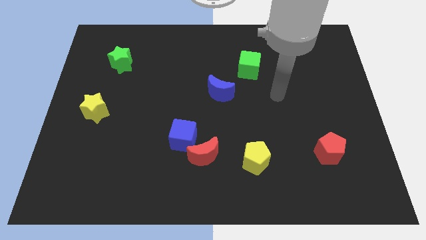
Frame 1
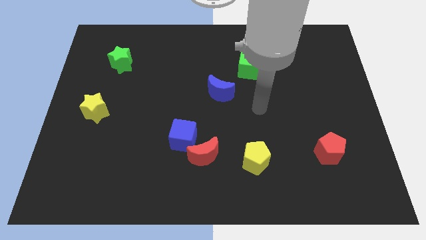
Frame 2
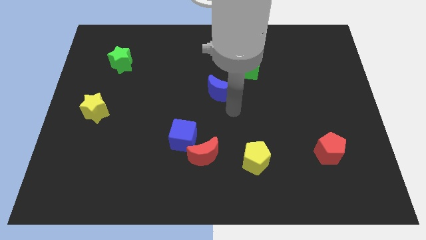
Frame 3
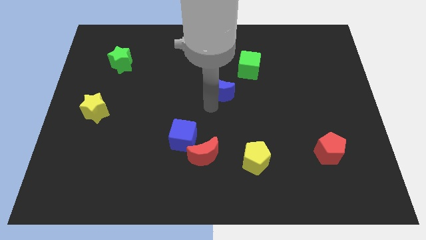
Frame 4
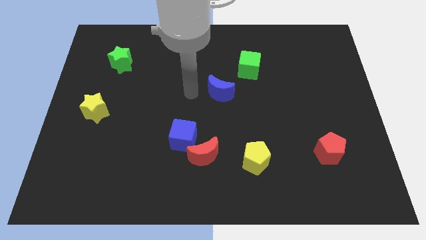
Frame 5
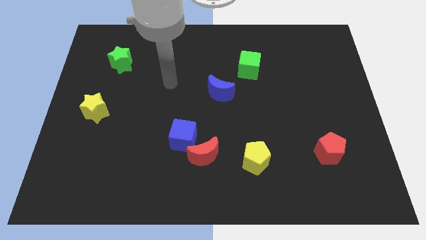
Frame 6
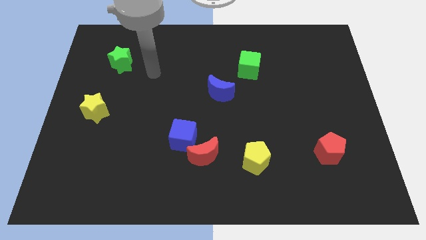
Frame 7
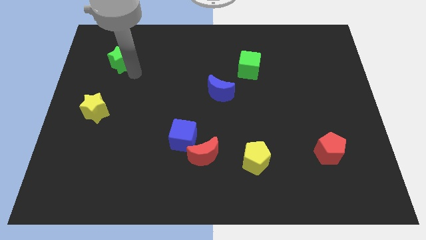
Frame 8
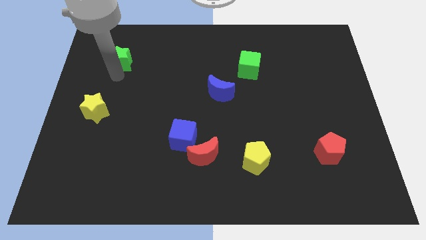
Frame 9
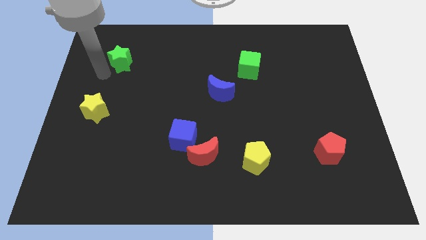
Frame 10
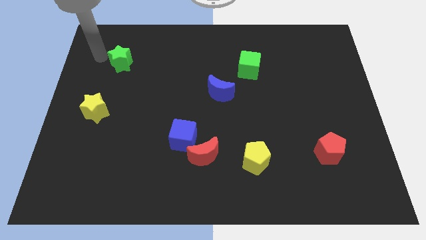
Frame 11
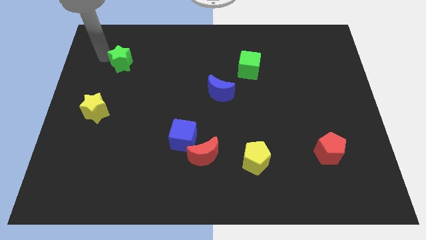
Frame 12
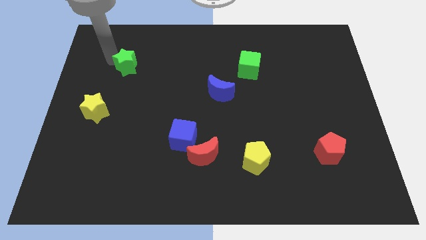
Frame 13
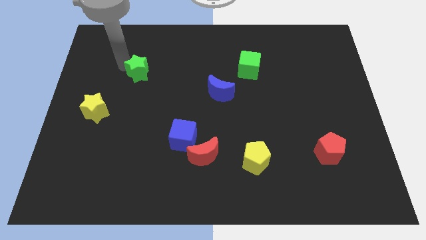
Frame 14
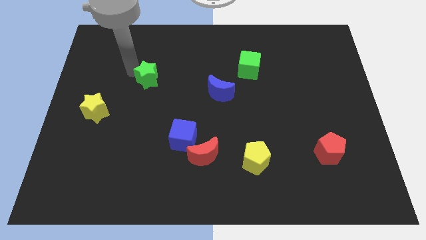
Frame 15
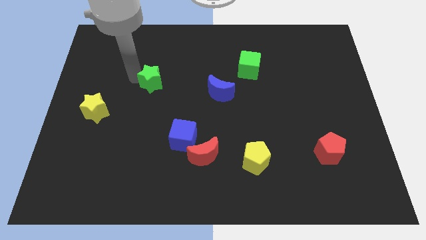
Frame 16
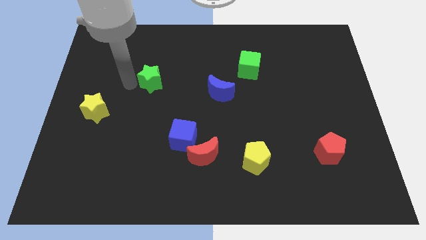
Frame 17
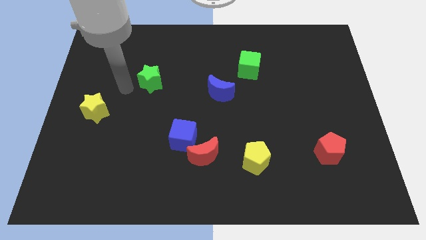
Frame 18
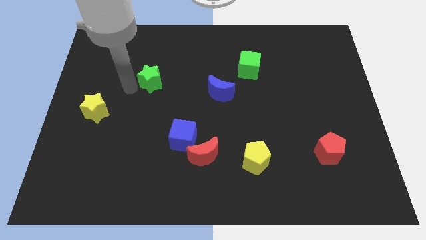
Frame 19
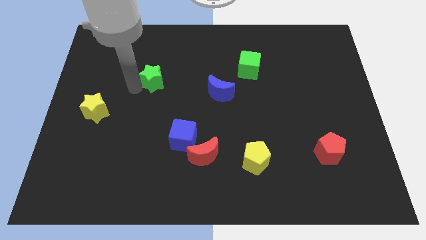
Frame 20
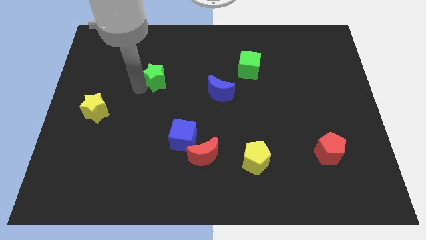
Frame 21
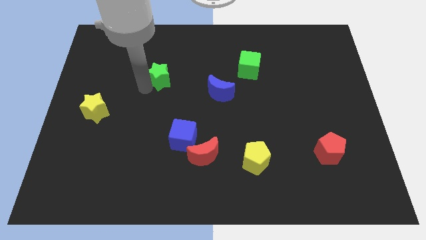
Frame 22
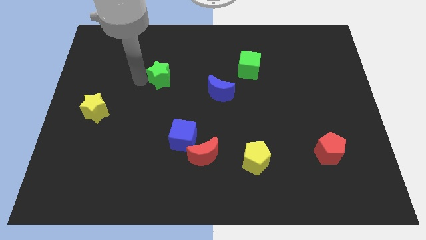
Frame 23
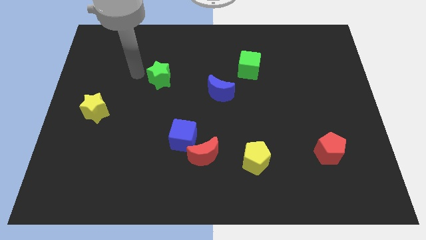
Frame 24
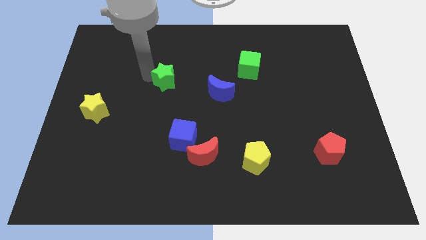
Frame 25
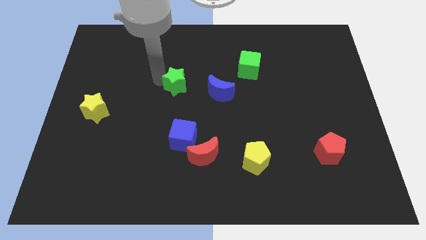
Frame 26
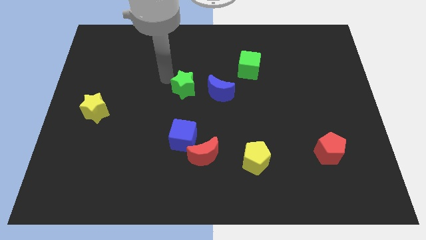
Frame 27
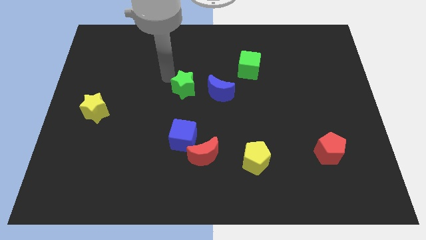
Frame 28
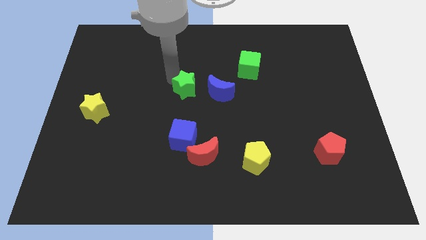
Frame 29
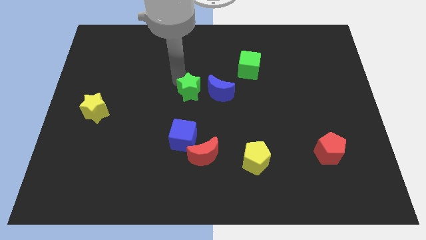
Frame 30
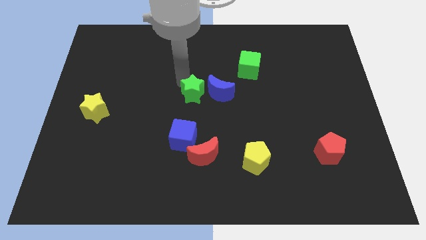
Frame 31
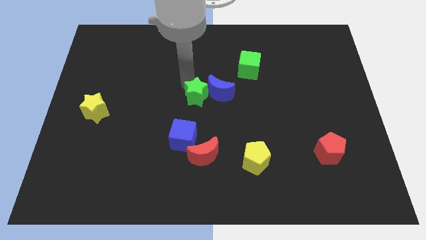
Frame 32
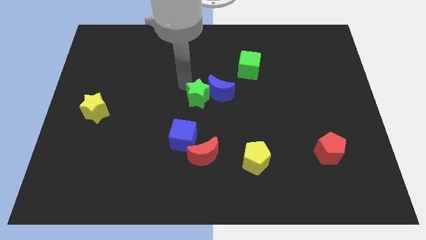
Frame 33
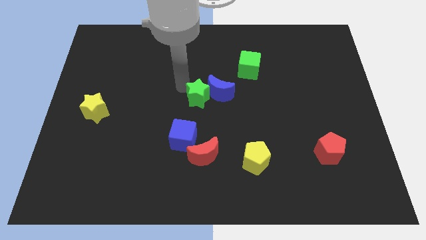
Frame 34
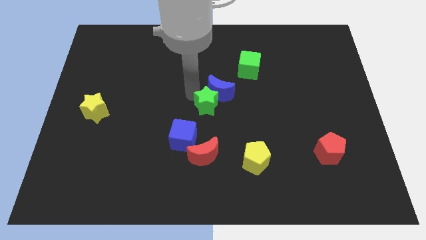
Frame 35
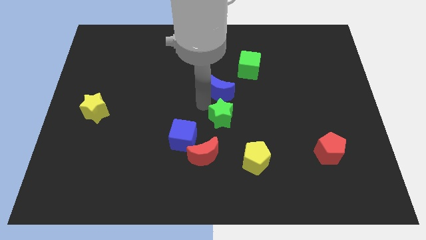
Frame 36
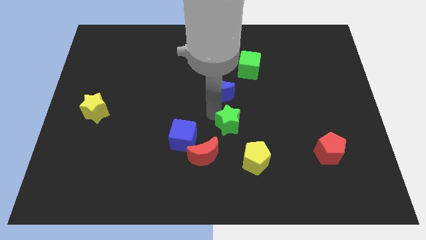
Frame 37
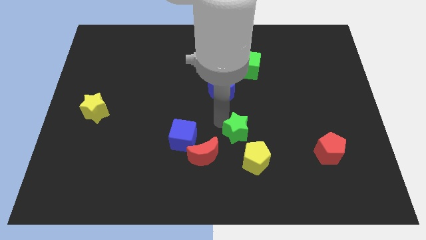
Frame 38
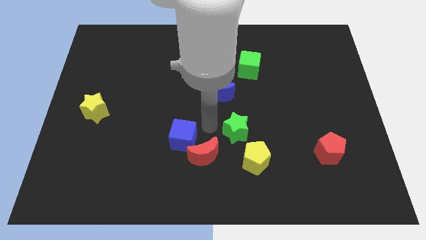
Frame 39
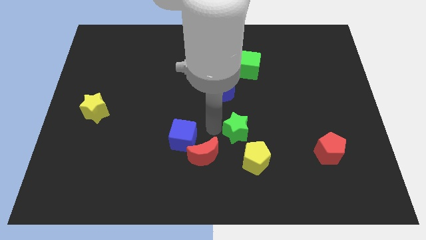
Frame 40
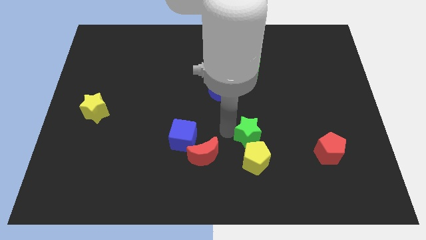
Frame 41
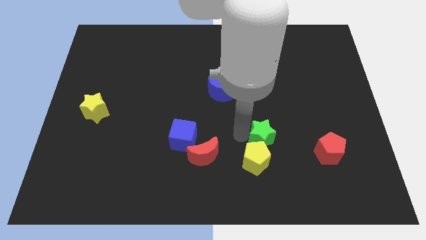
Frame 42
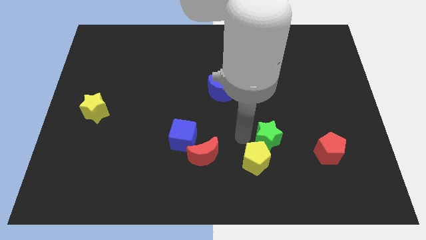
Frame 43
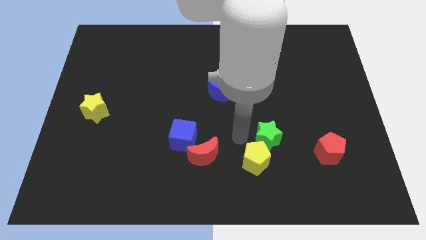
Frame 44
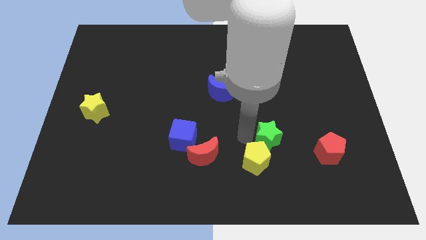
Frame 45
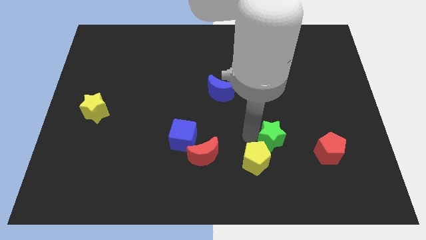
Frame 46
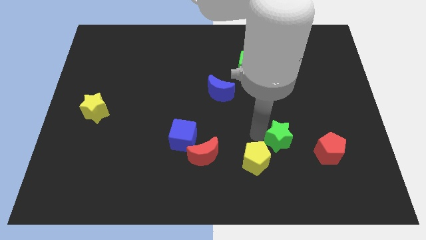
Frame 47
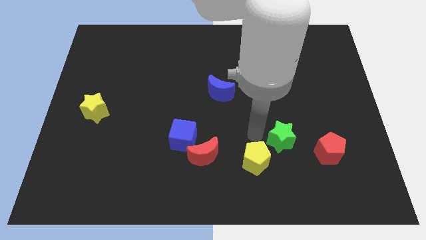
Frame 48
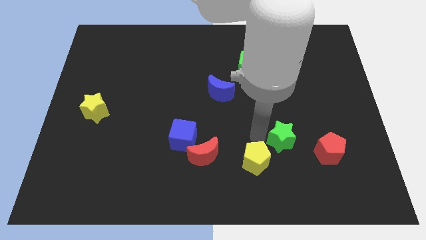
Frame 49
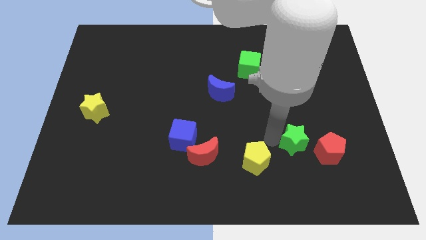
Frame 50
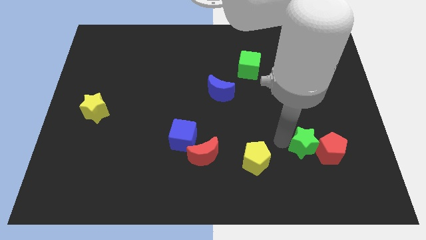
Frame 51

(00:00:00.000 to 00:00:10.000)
move the green star to the red pentagon

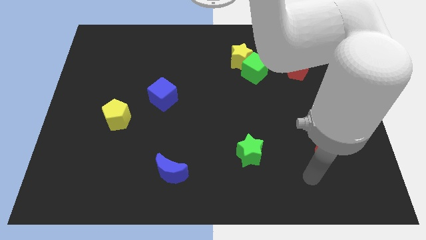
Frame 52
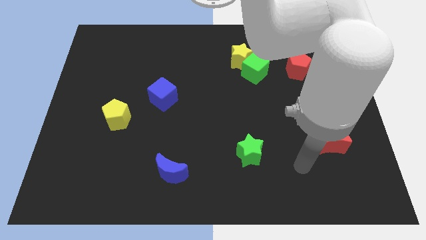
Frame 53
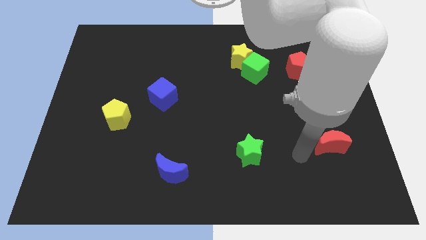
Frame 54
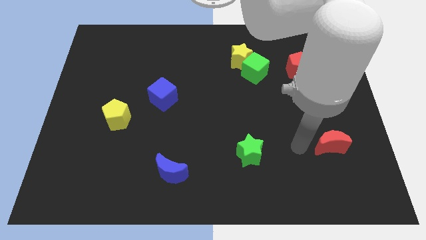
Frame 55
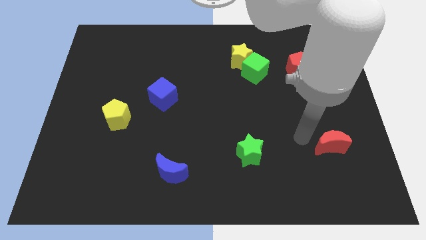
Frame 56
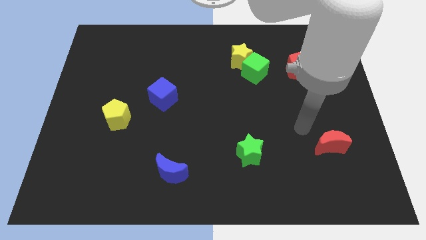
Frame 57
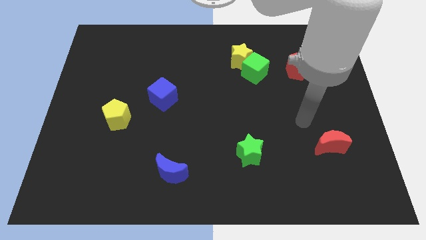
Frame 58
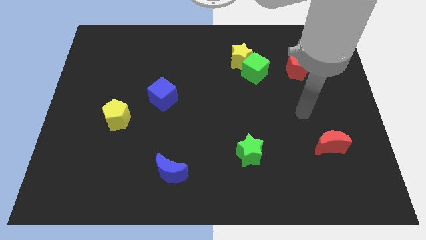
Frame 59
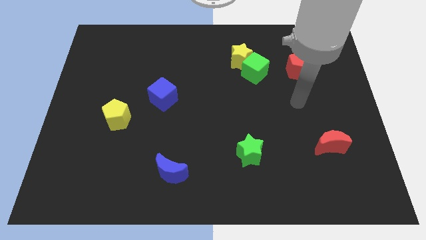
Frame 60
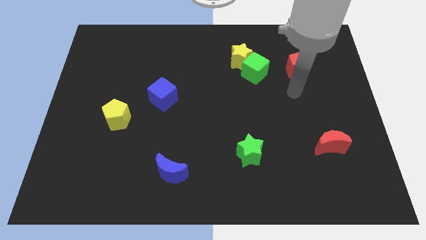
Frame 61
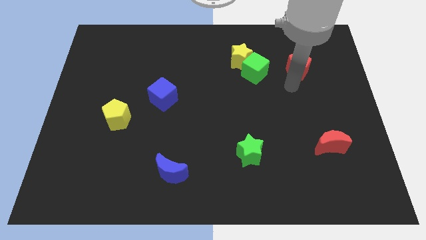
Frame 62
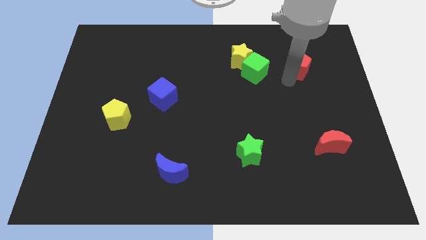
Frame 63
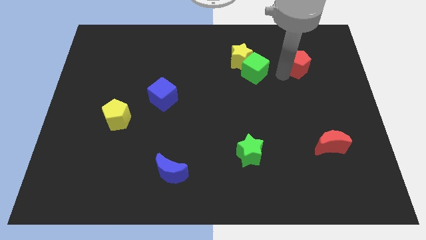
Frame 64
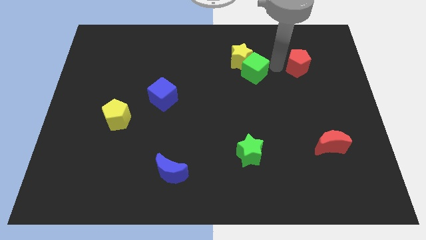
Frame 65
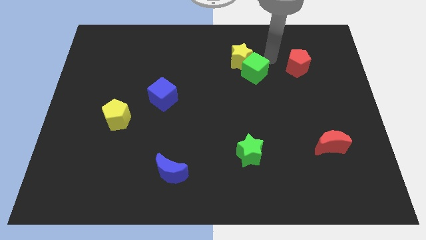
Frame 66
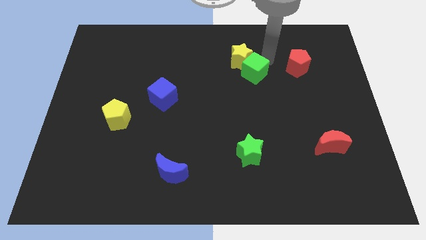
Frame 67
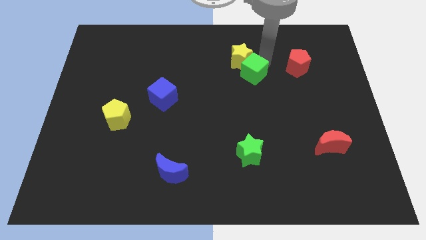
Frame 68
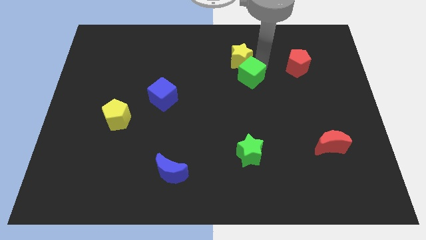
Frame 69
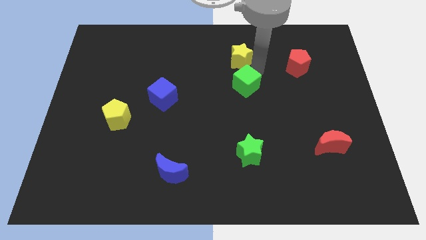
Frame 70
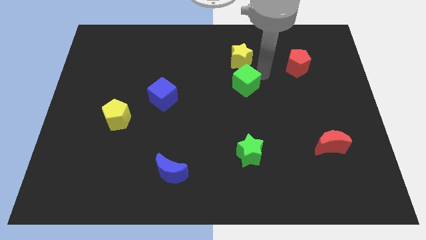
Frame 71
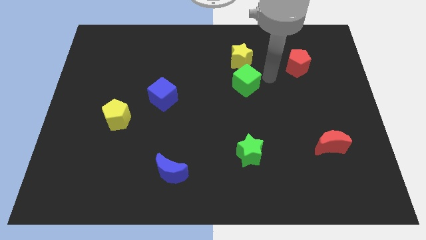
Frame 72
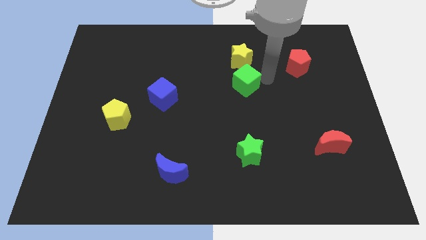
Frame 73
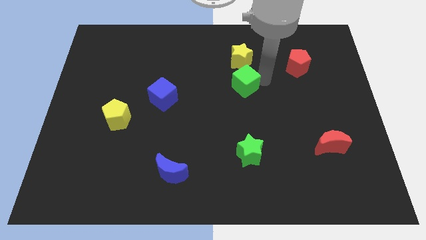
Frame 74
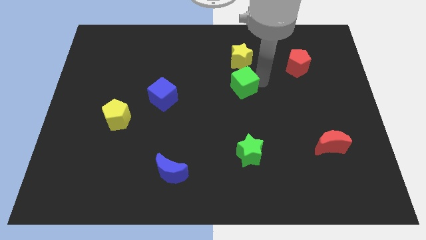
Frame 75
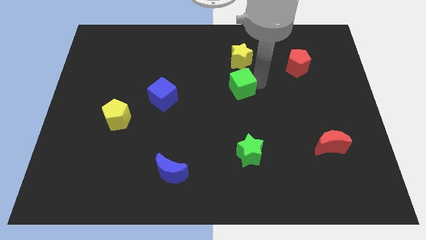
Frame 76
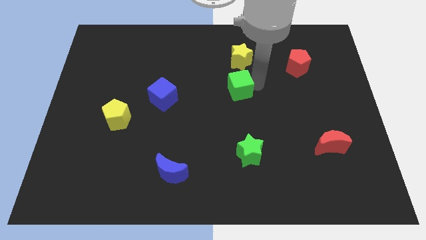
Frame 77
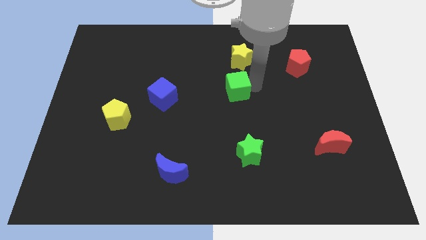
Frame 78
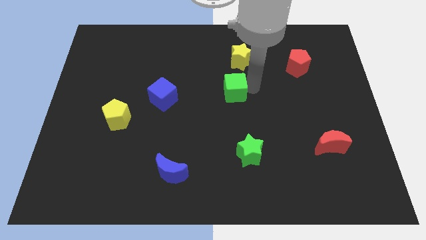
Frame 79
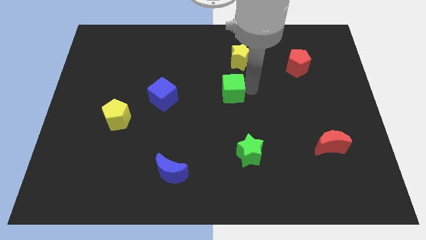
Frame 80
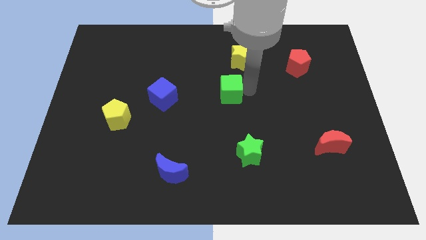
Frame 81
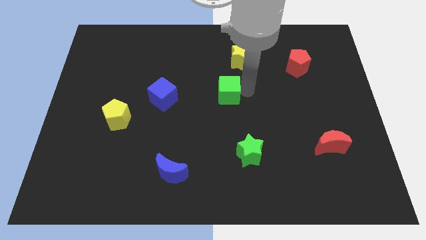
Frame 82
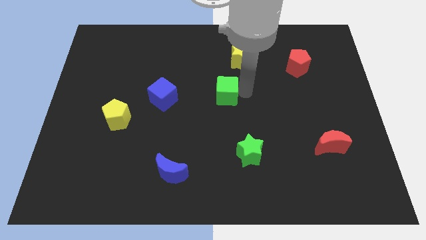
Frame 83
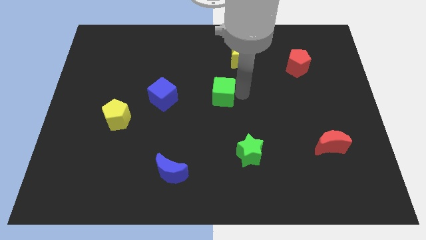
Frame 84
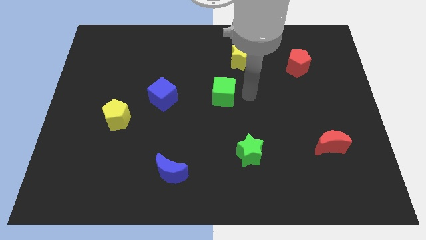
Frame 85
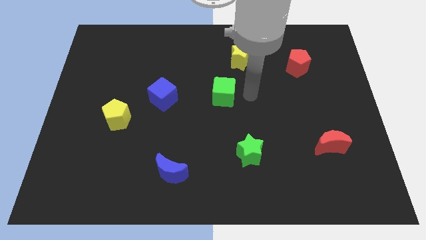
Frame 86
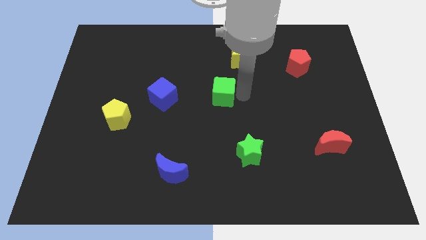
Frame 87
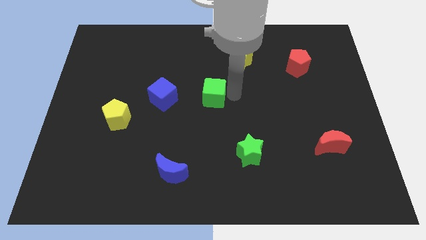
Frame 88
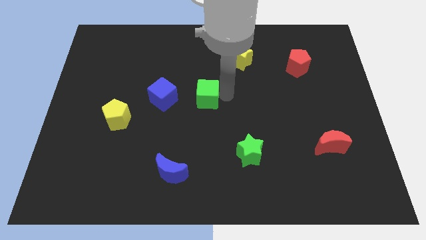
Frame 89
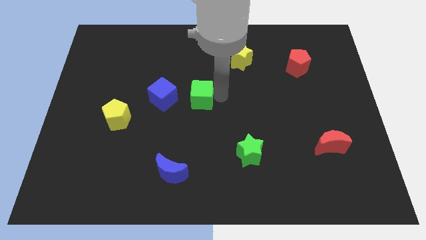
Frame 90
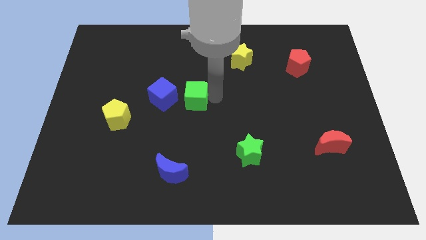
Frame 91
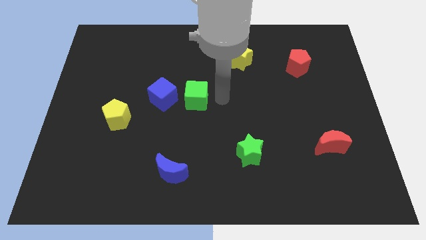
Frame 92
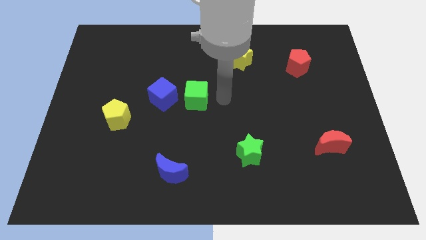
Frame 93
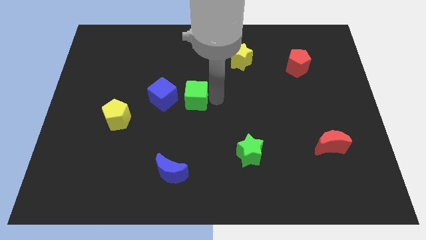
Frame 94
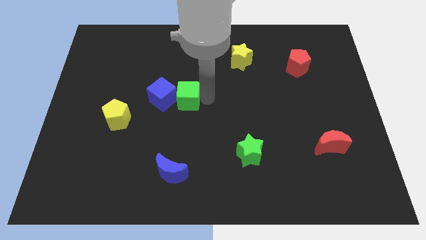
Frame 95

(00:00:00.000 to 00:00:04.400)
push the green cube to the blue cube
